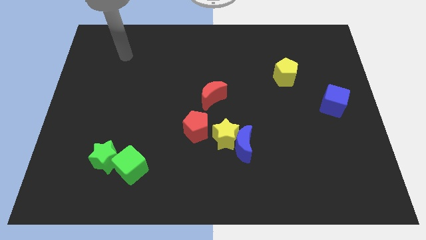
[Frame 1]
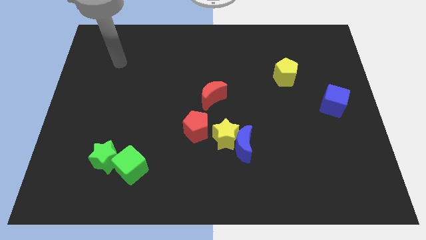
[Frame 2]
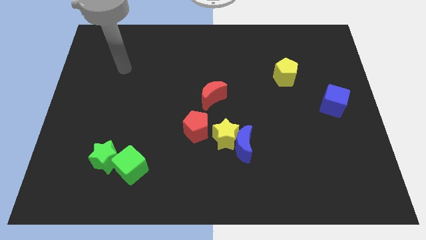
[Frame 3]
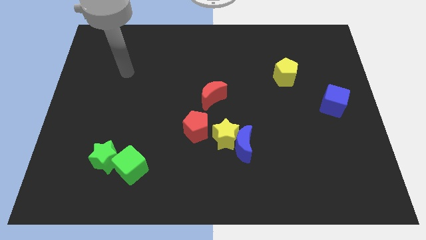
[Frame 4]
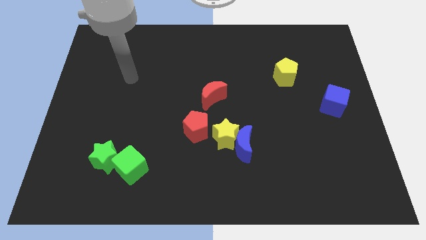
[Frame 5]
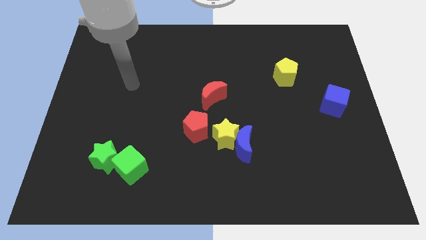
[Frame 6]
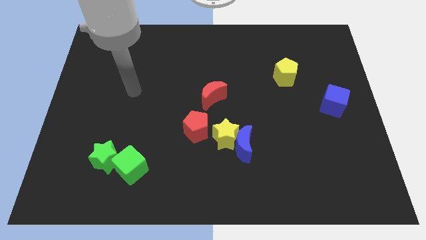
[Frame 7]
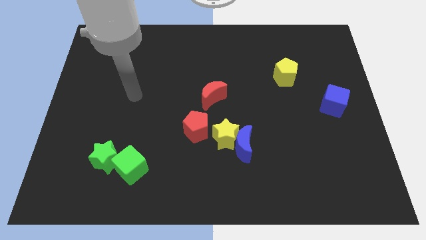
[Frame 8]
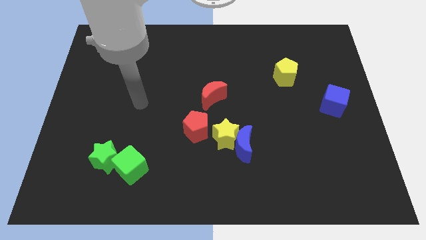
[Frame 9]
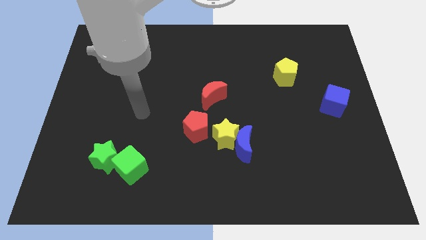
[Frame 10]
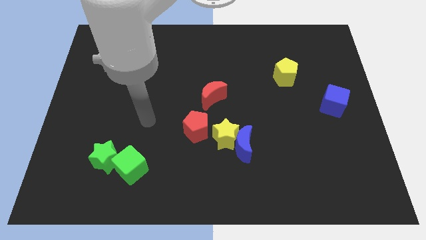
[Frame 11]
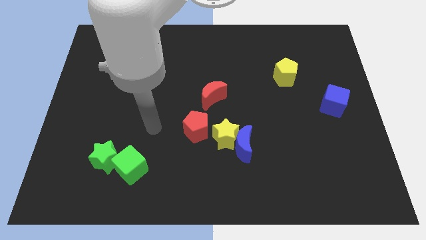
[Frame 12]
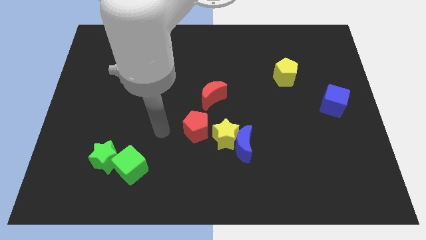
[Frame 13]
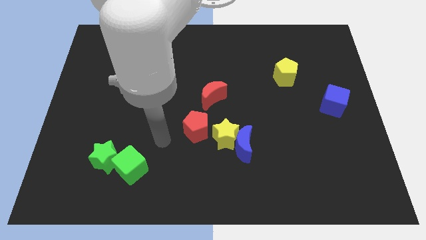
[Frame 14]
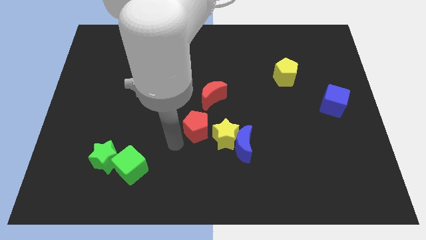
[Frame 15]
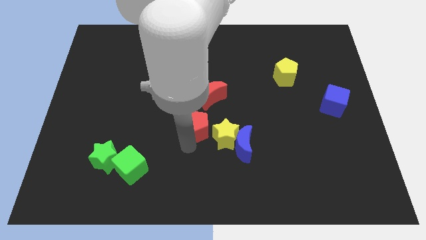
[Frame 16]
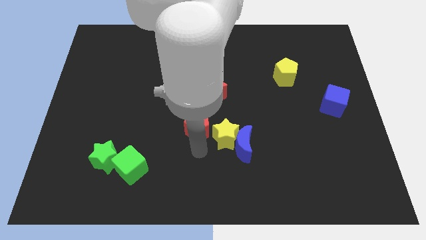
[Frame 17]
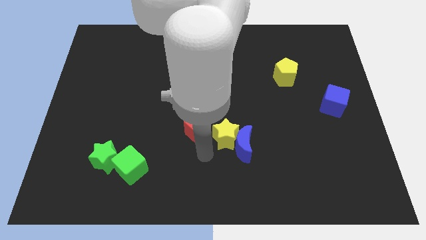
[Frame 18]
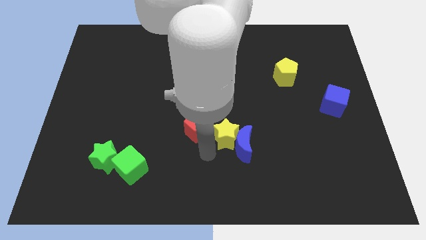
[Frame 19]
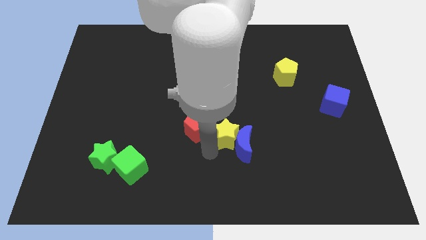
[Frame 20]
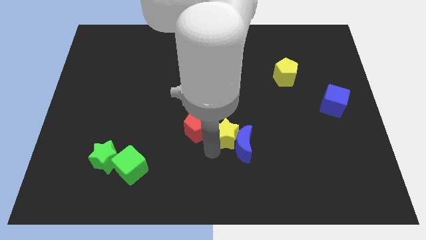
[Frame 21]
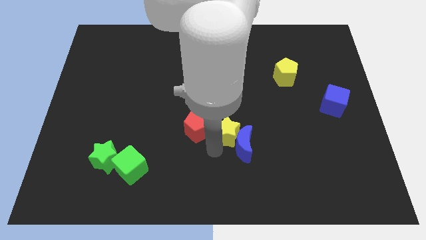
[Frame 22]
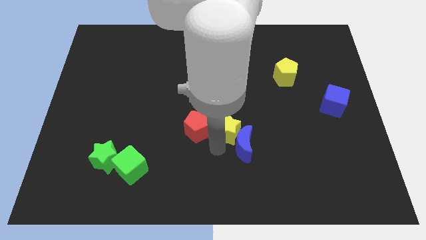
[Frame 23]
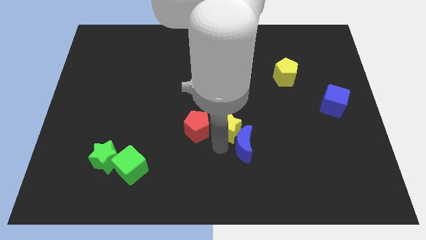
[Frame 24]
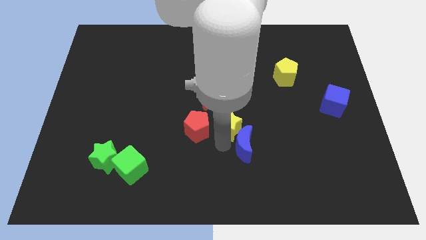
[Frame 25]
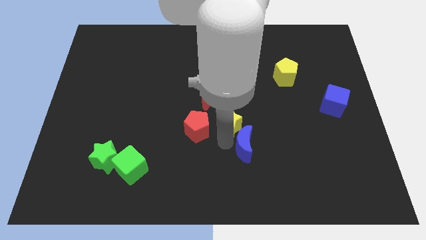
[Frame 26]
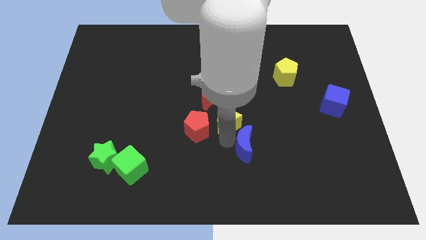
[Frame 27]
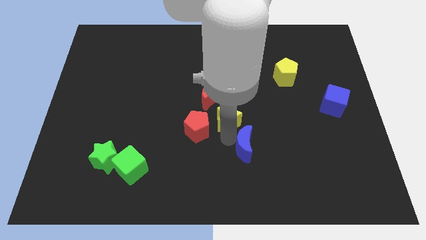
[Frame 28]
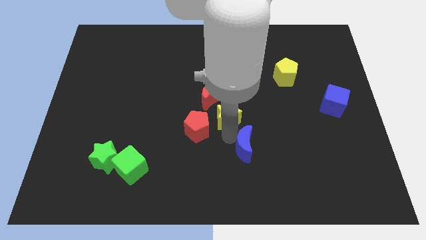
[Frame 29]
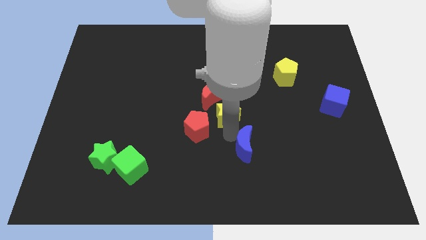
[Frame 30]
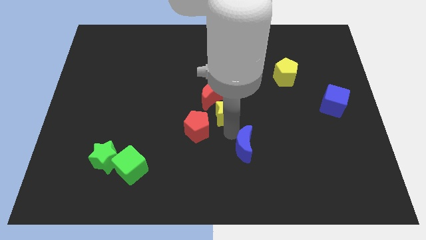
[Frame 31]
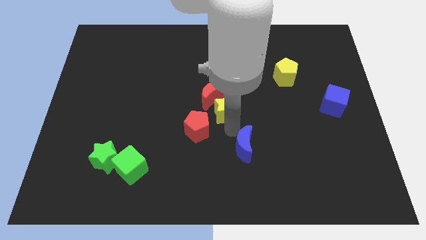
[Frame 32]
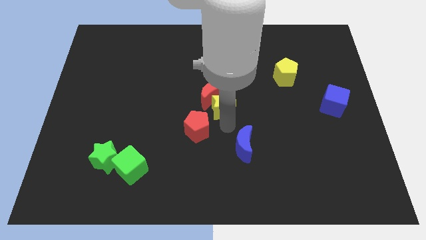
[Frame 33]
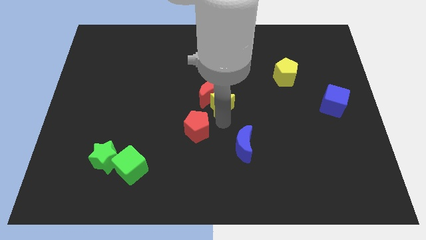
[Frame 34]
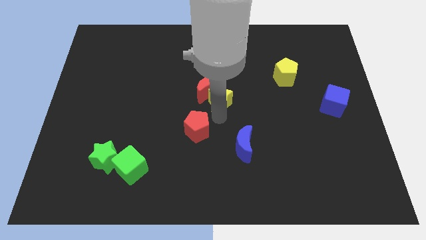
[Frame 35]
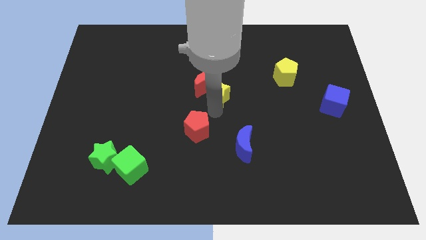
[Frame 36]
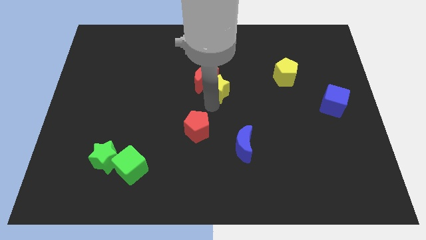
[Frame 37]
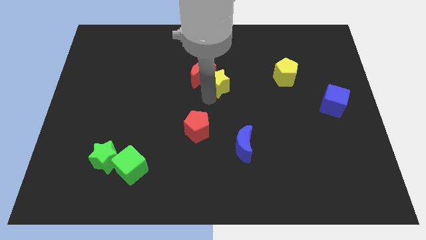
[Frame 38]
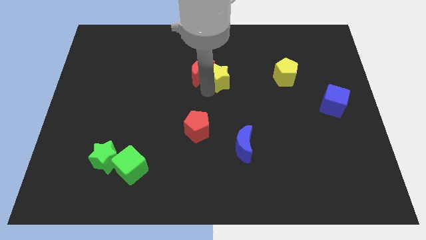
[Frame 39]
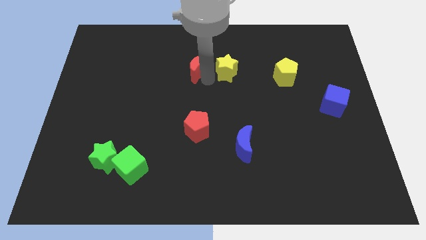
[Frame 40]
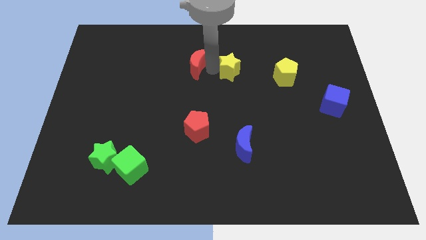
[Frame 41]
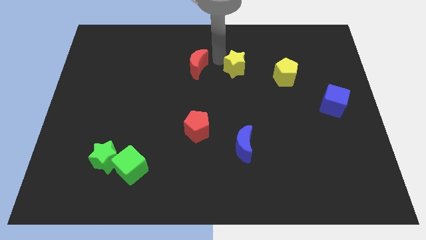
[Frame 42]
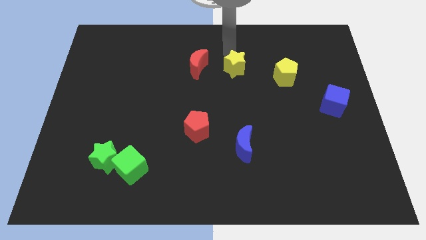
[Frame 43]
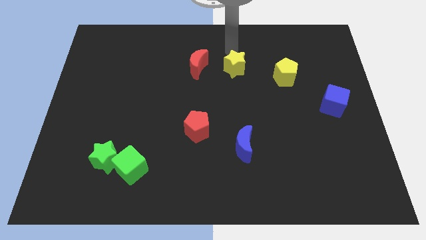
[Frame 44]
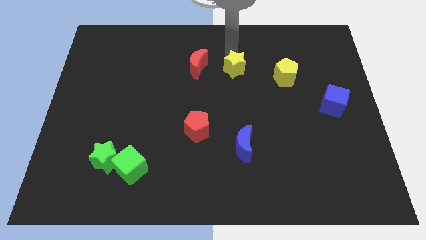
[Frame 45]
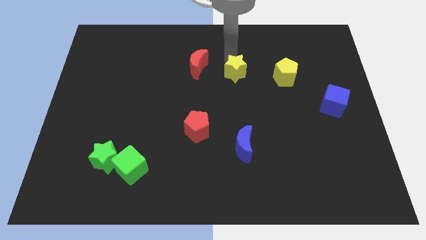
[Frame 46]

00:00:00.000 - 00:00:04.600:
slightly push the yellow star up and then to the right

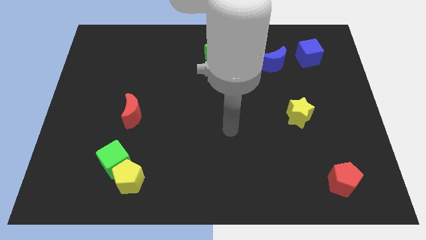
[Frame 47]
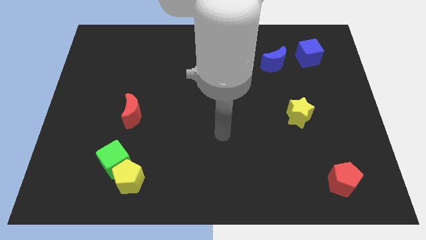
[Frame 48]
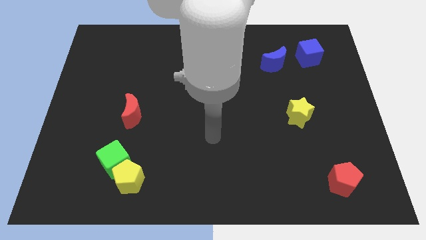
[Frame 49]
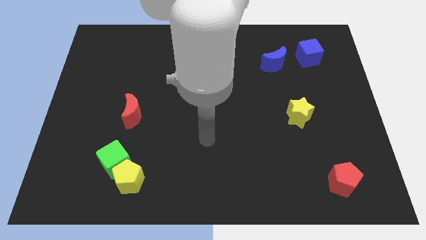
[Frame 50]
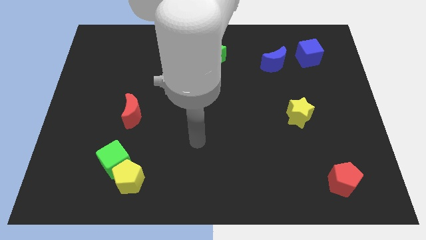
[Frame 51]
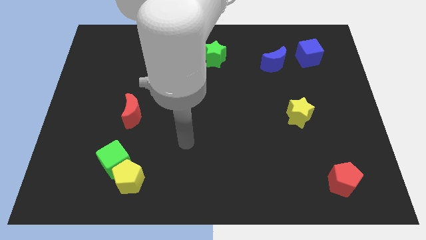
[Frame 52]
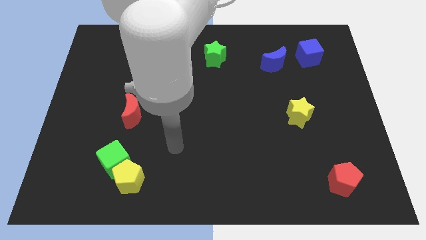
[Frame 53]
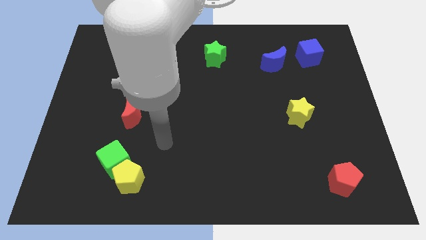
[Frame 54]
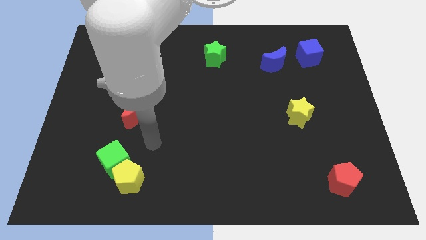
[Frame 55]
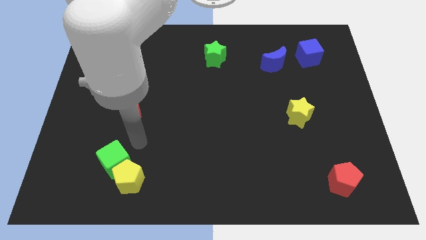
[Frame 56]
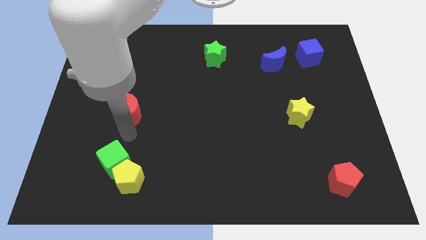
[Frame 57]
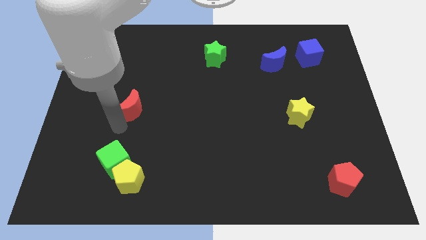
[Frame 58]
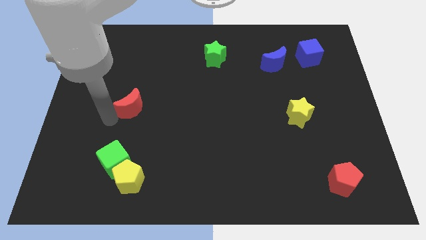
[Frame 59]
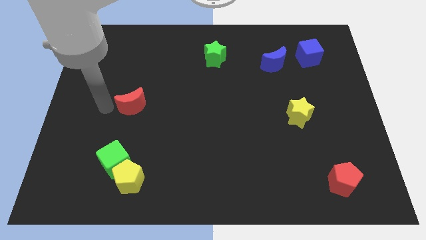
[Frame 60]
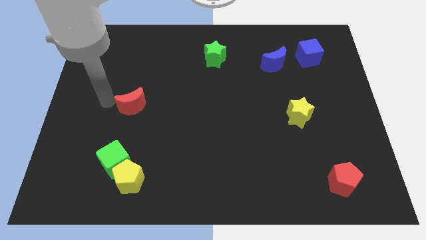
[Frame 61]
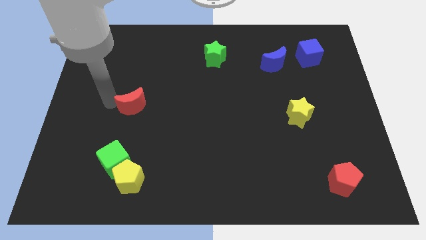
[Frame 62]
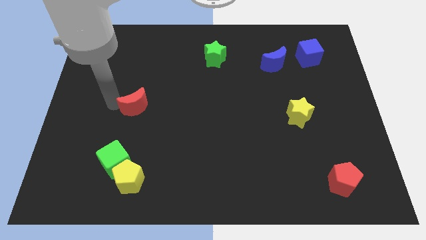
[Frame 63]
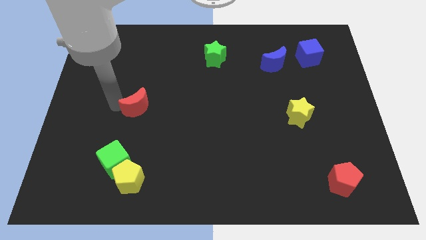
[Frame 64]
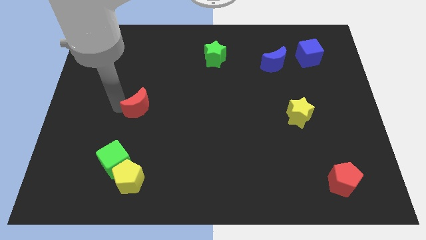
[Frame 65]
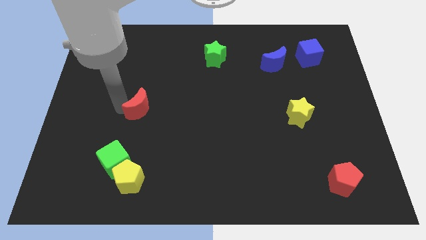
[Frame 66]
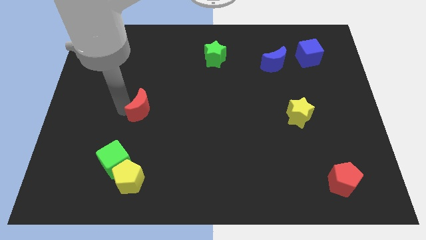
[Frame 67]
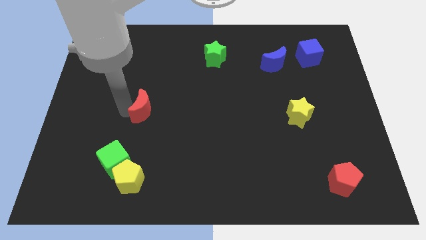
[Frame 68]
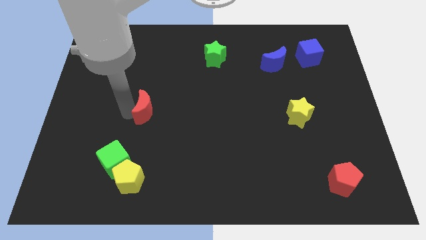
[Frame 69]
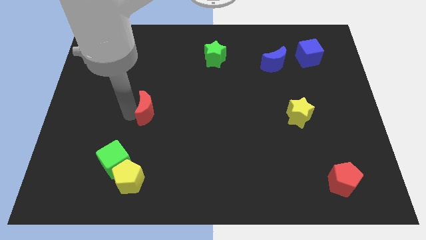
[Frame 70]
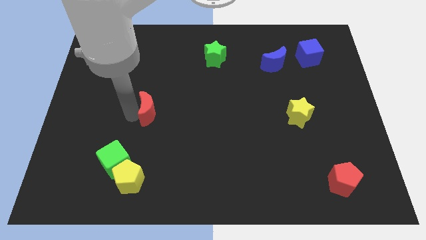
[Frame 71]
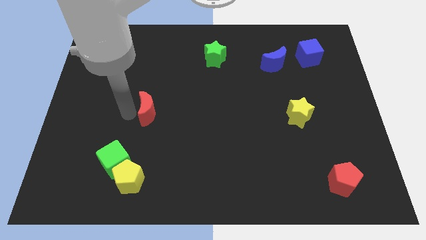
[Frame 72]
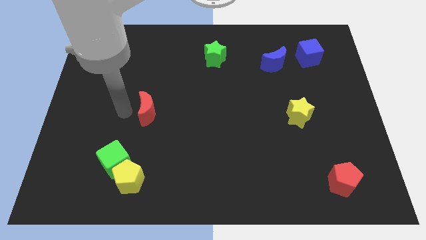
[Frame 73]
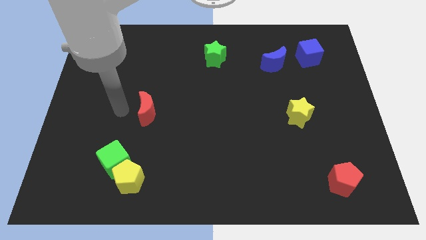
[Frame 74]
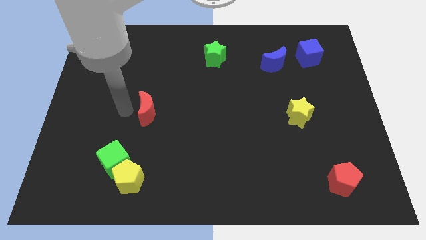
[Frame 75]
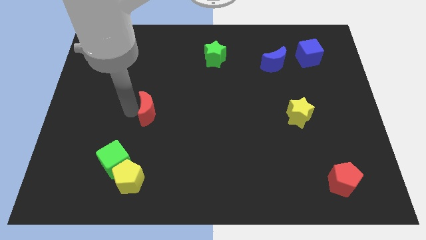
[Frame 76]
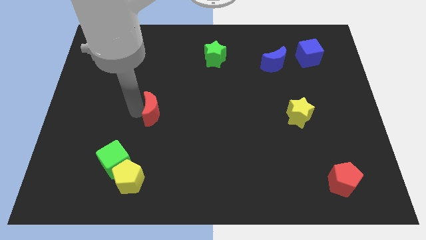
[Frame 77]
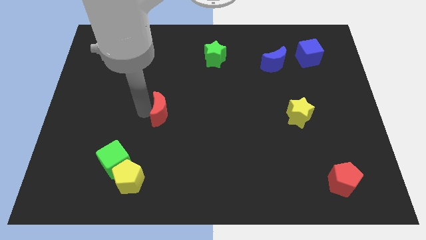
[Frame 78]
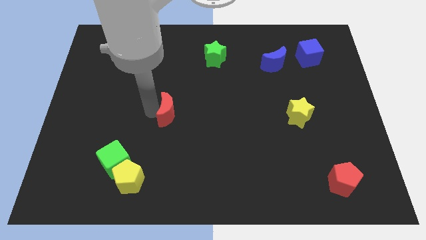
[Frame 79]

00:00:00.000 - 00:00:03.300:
slightly slide the red moon to the right

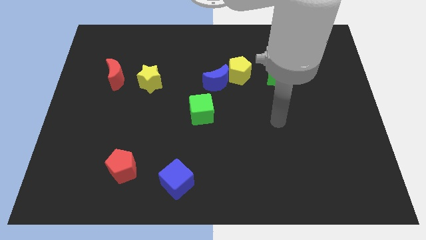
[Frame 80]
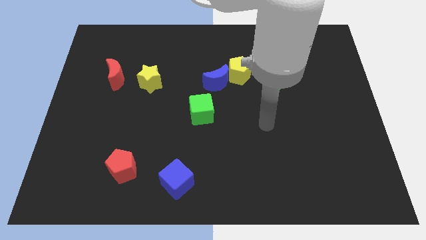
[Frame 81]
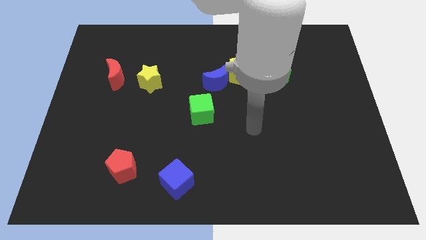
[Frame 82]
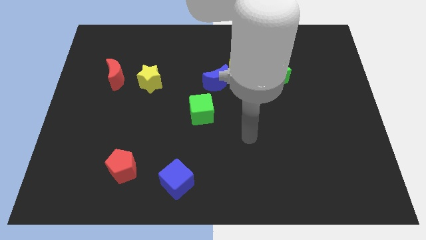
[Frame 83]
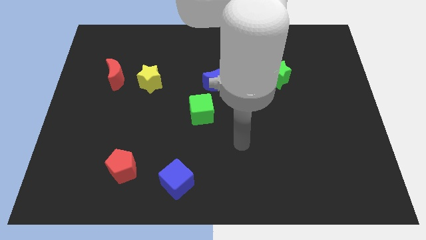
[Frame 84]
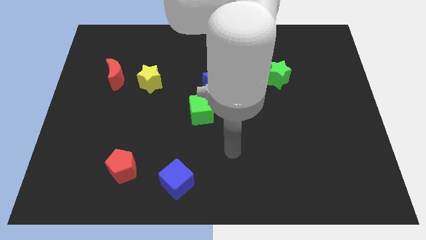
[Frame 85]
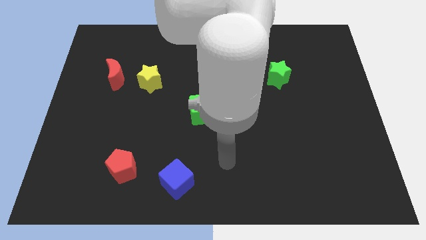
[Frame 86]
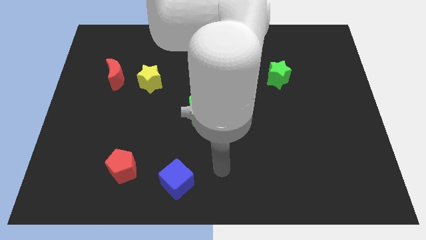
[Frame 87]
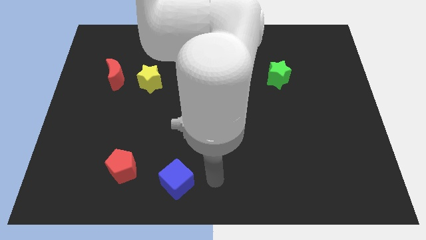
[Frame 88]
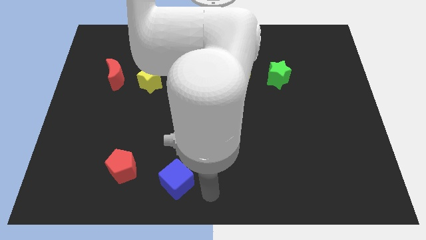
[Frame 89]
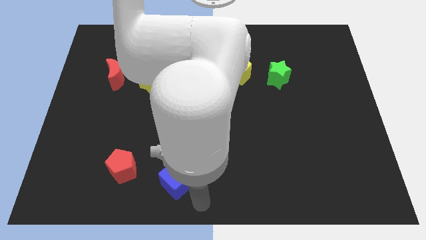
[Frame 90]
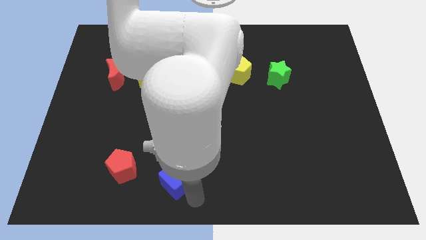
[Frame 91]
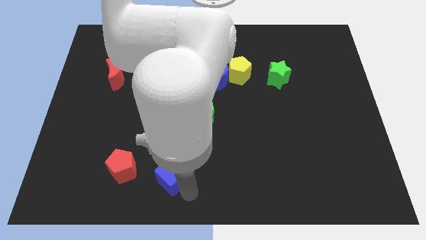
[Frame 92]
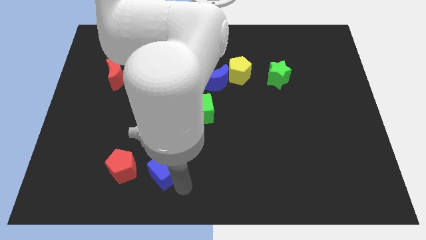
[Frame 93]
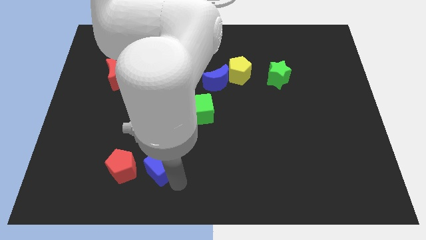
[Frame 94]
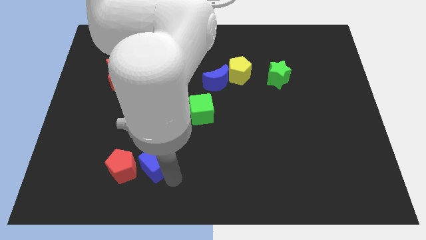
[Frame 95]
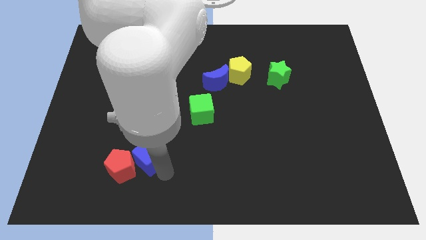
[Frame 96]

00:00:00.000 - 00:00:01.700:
move the blue cube up and to the left diagonally slightly
